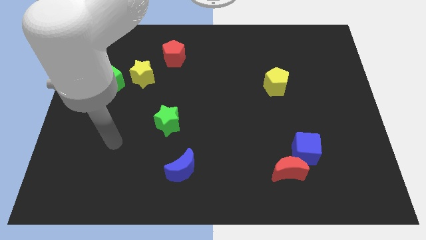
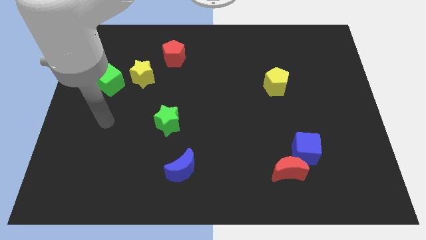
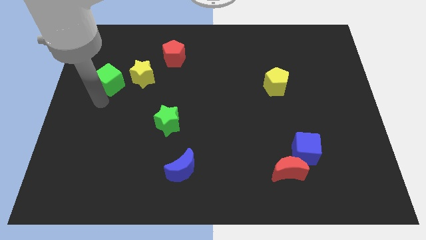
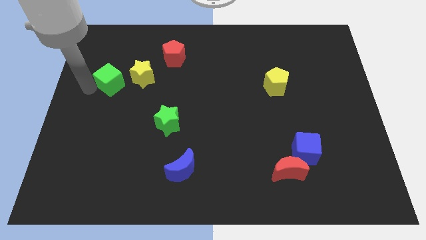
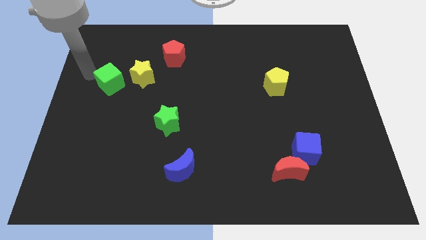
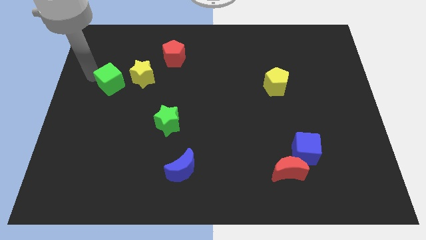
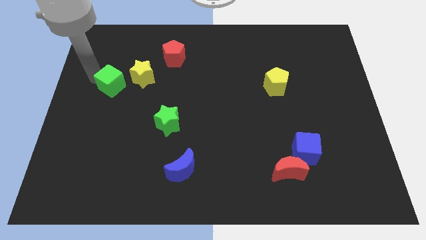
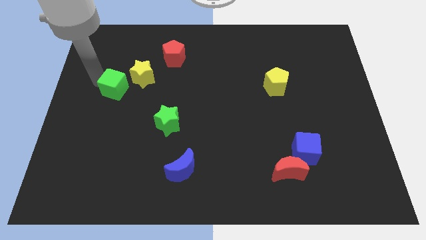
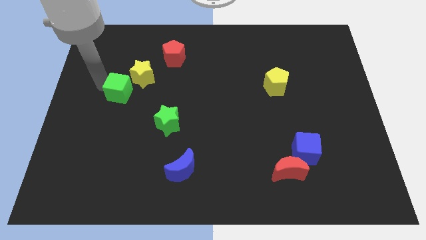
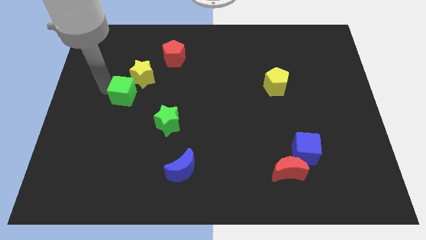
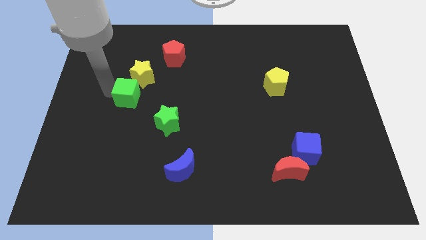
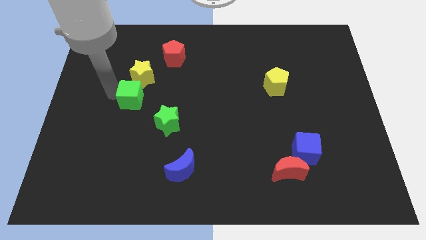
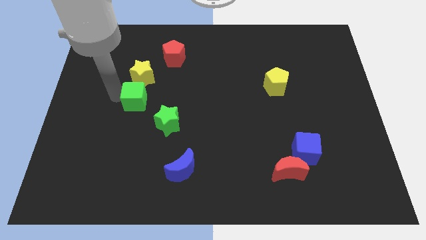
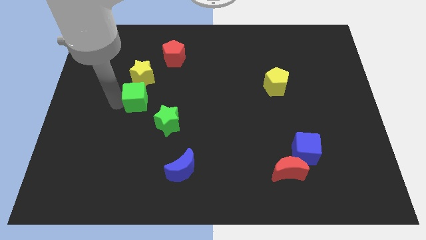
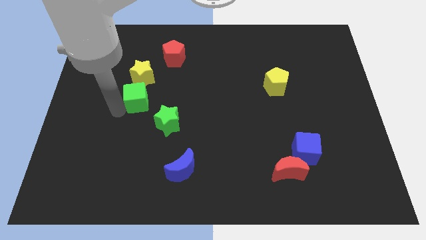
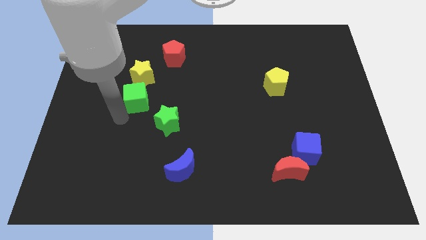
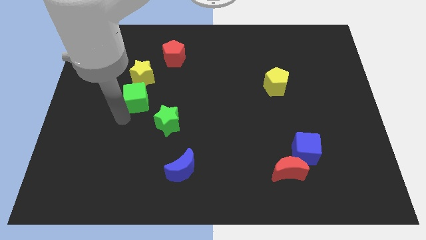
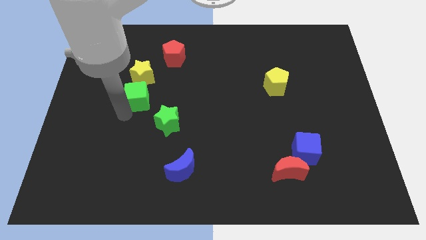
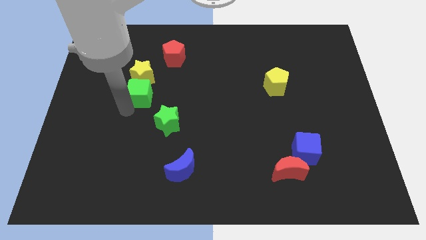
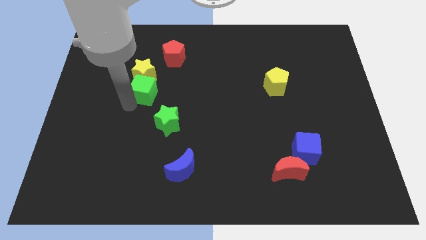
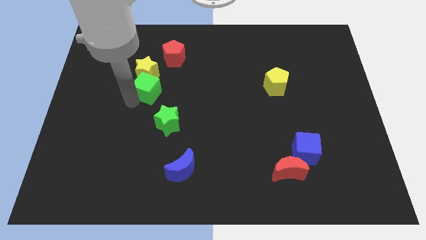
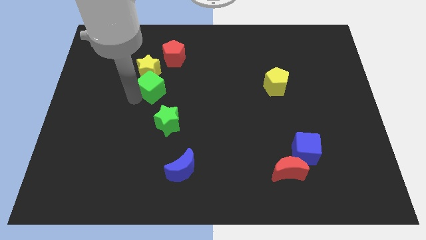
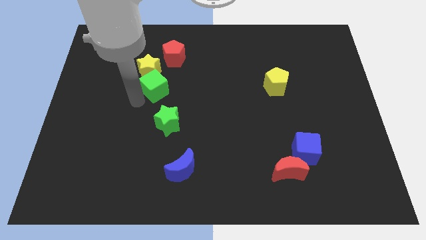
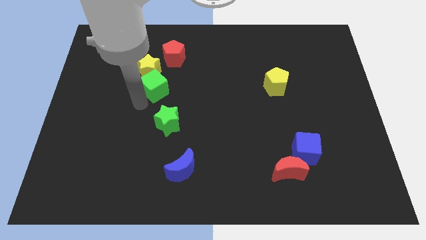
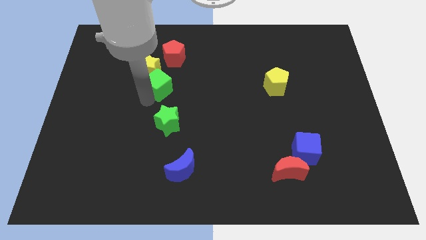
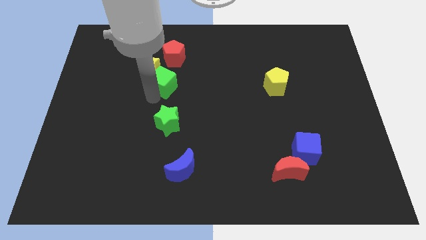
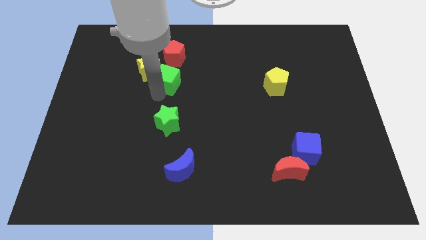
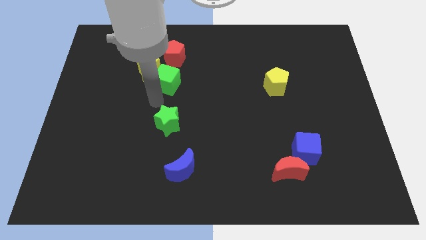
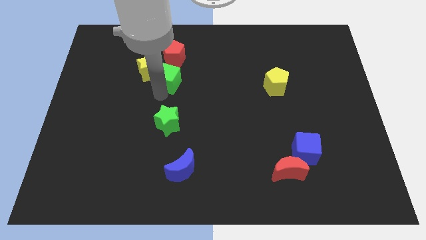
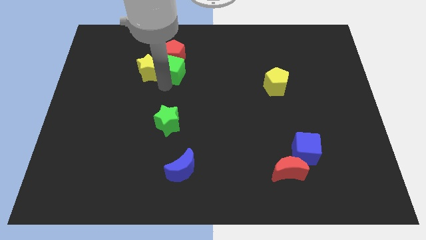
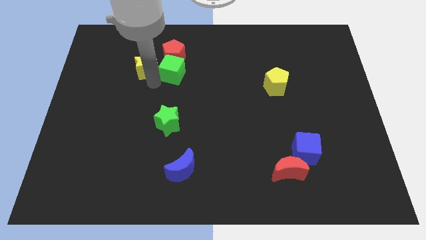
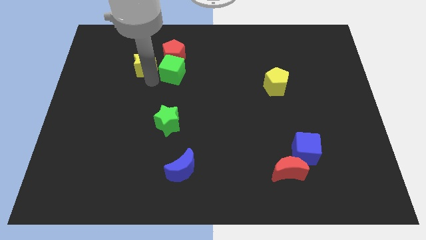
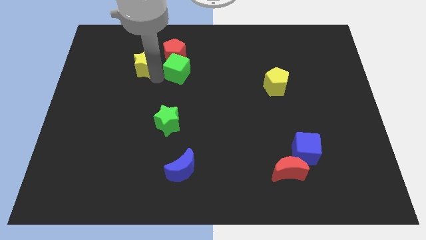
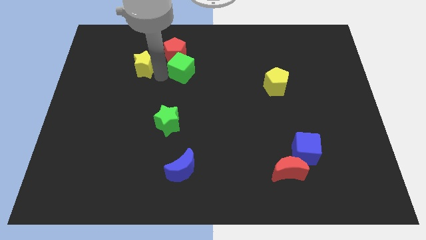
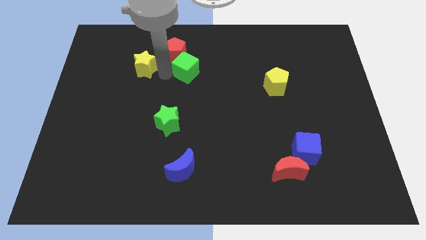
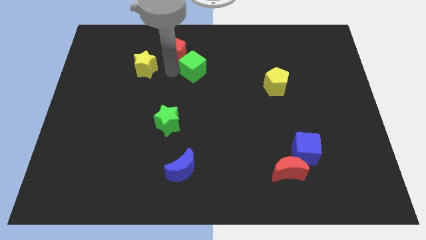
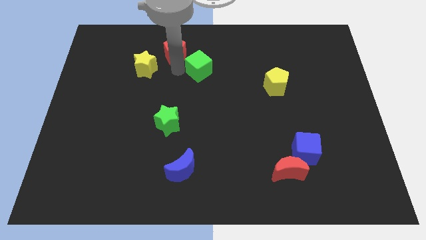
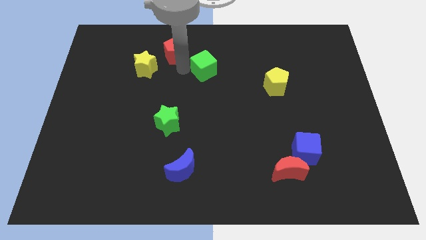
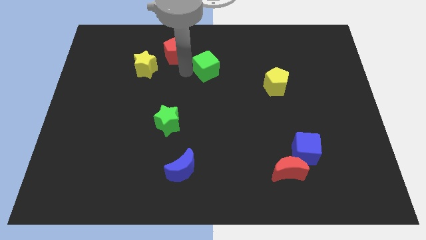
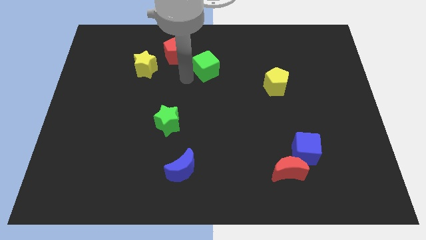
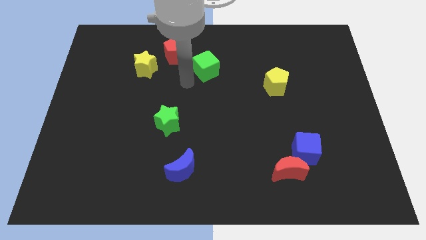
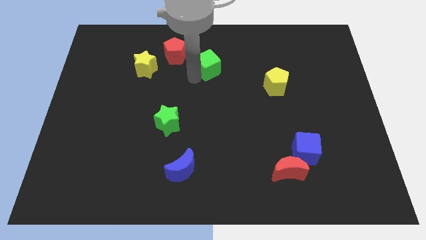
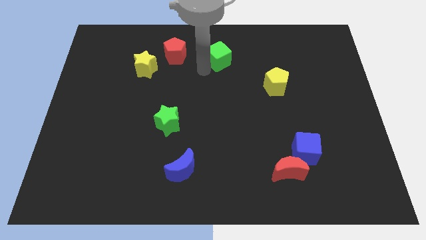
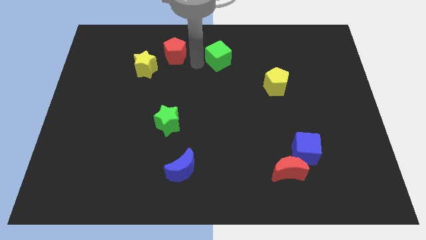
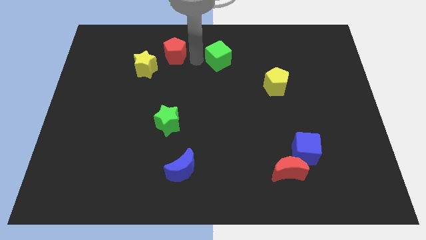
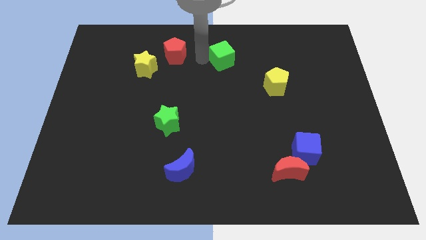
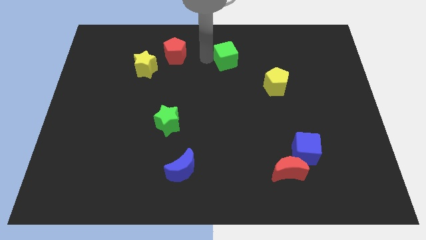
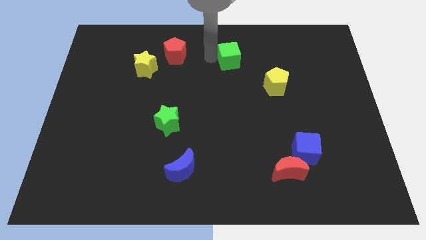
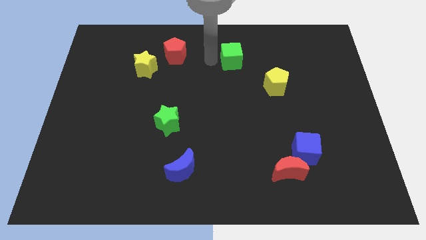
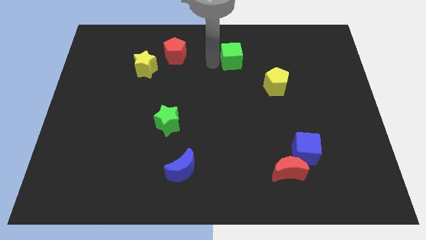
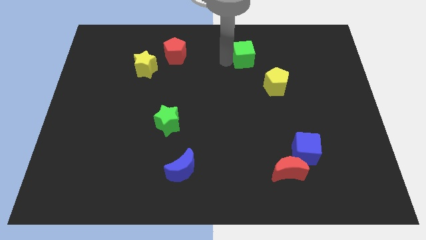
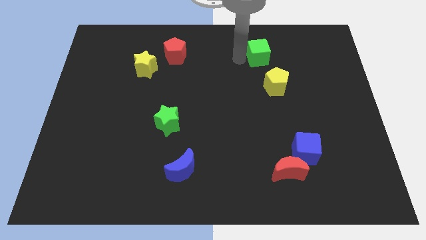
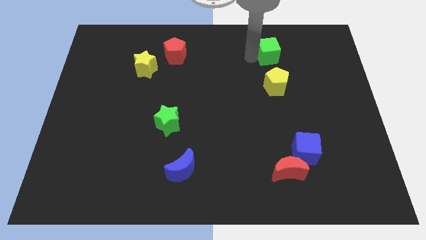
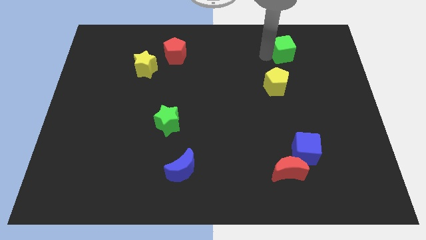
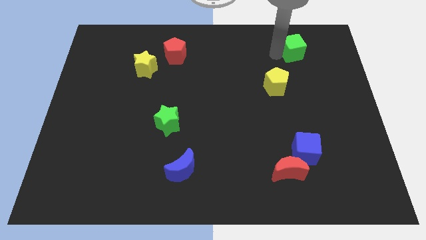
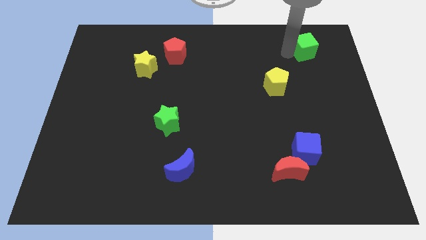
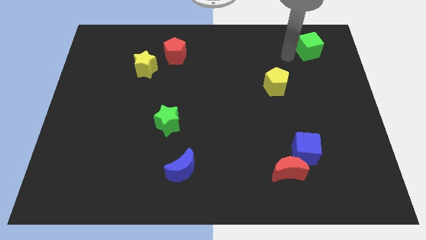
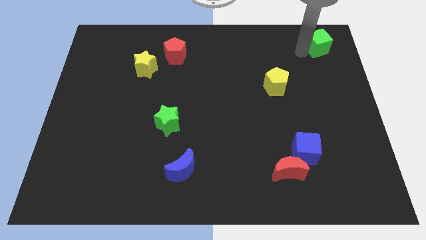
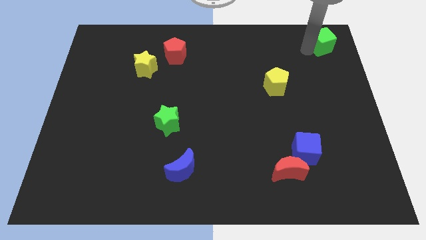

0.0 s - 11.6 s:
slide the green cube to the top right corner

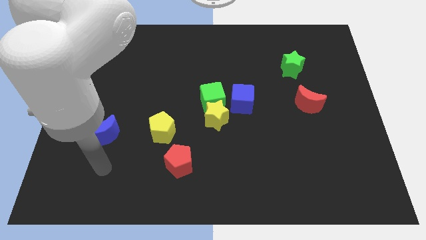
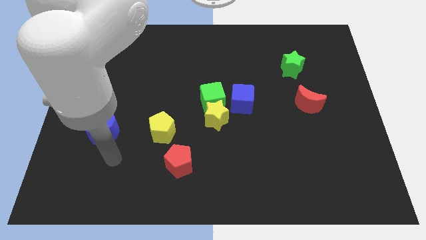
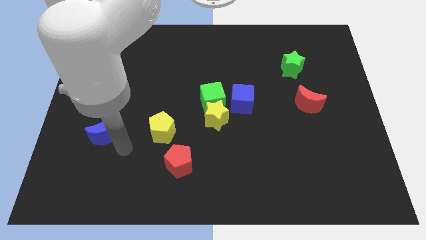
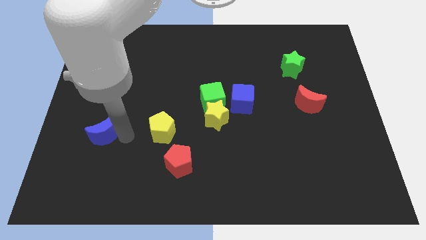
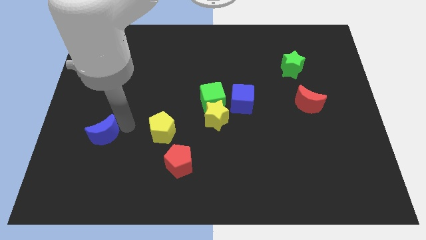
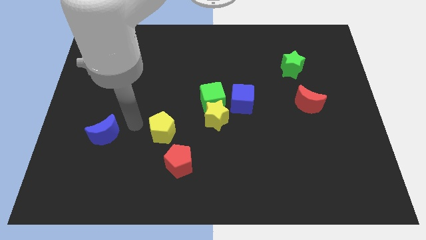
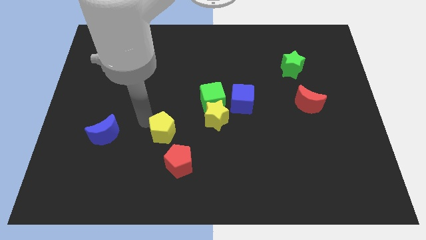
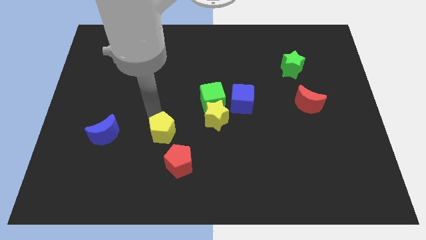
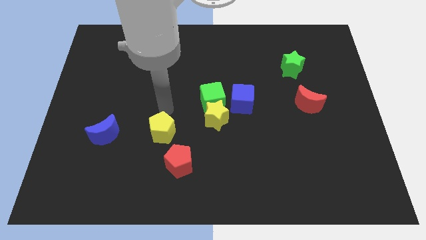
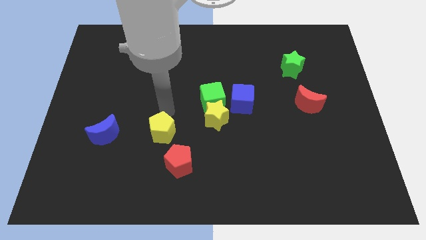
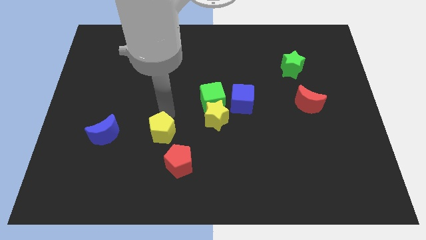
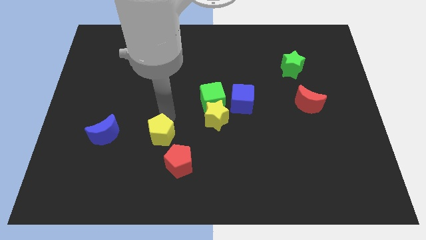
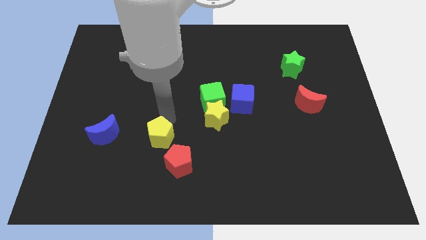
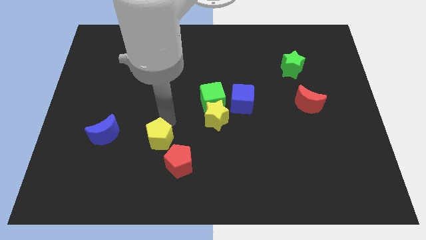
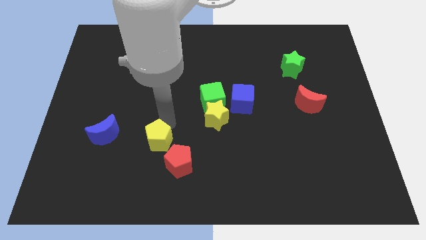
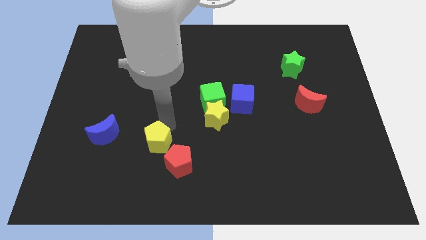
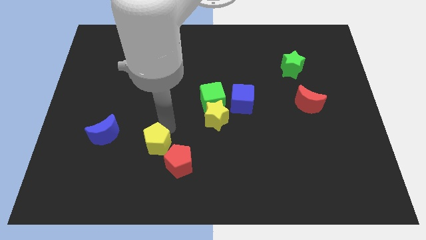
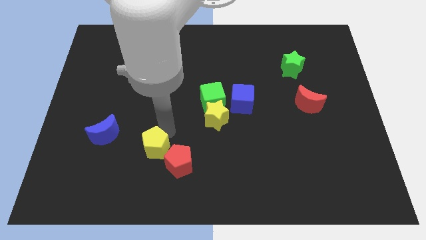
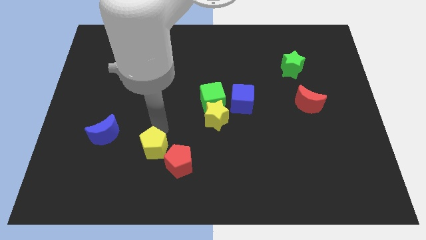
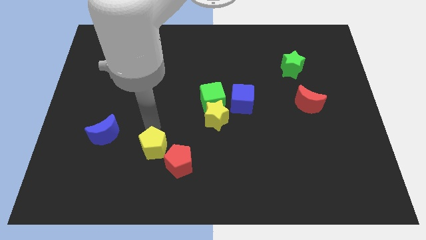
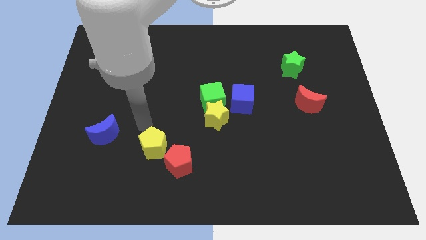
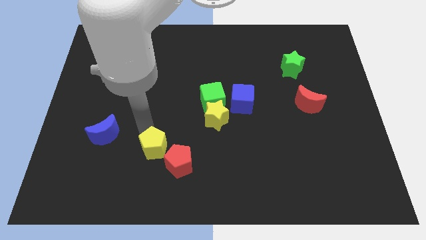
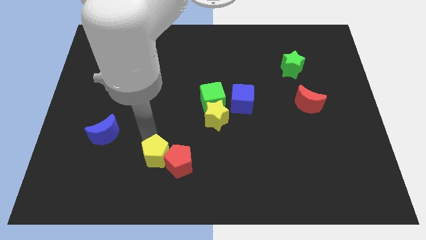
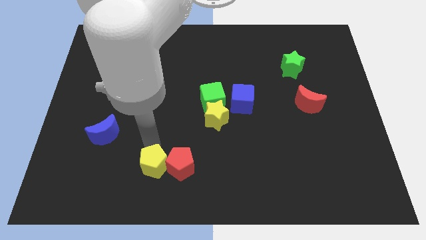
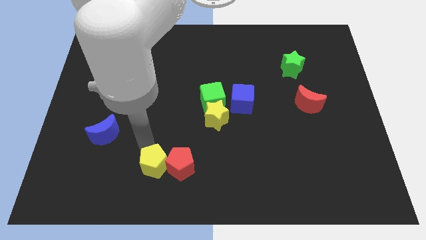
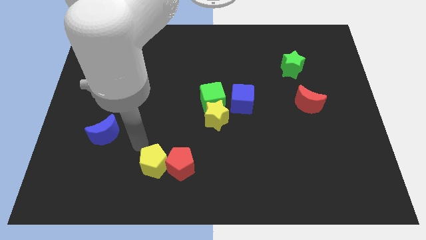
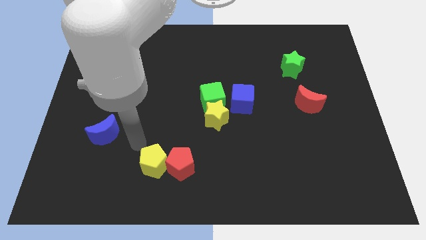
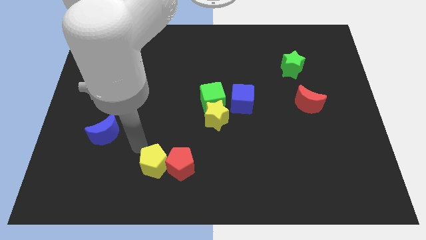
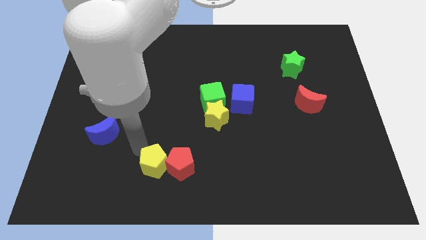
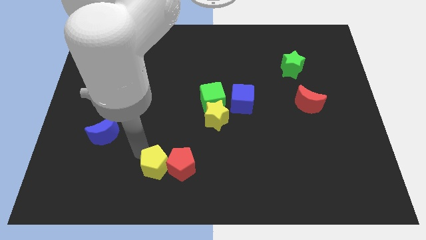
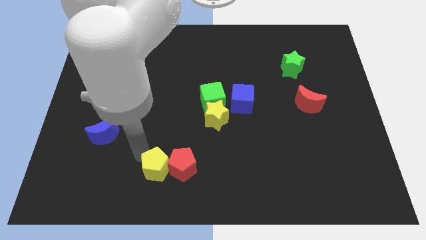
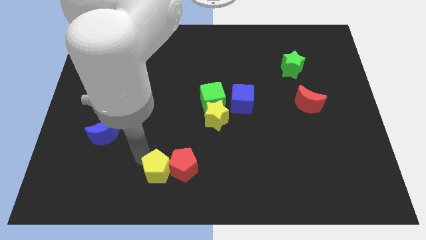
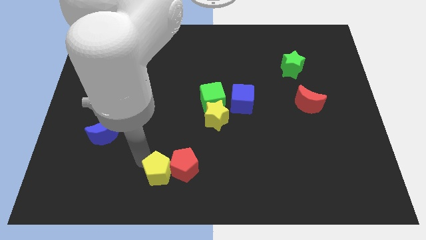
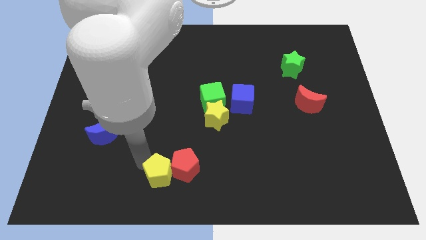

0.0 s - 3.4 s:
push the yellow pentagon to the bottom
